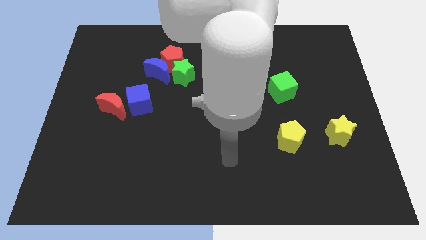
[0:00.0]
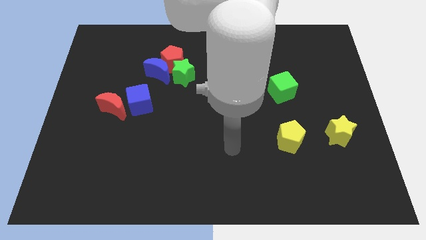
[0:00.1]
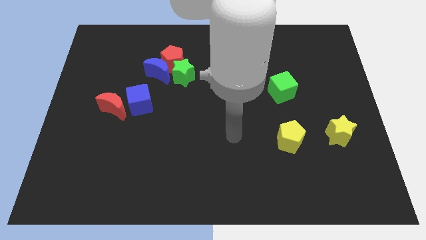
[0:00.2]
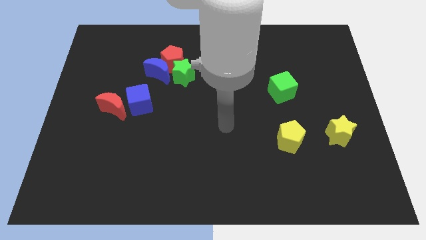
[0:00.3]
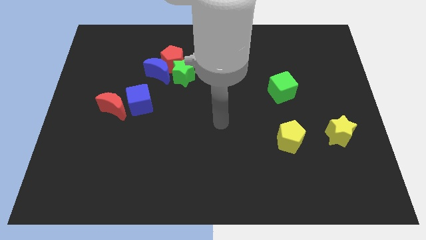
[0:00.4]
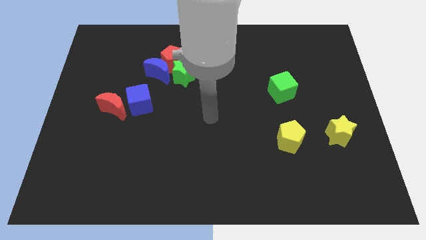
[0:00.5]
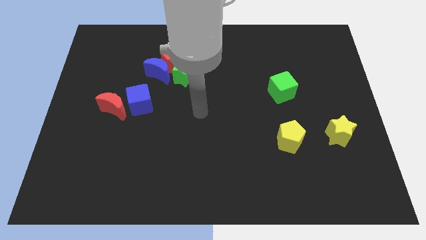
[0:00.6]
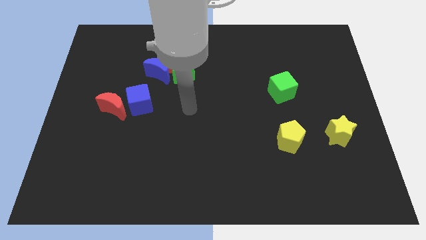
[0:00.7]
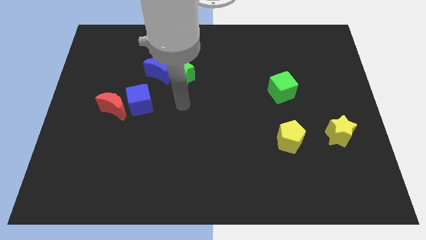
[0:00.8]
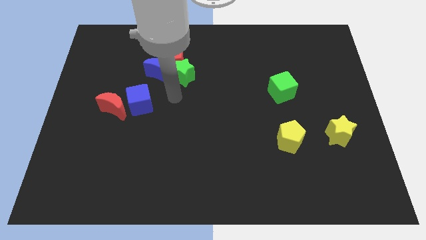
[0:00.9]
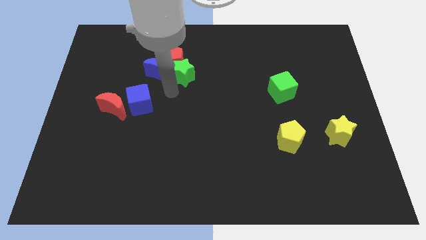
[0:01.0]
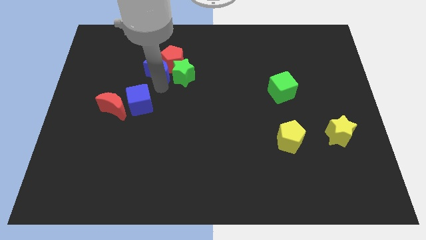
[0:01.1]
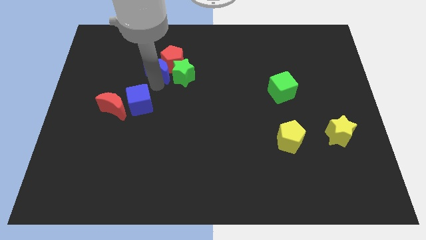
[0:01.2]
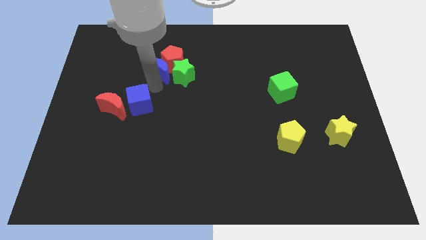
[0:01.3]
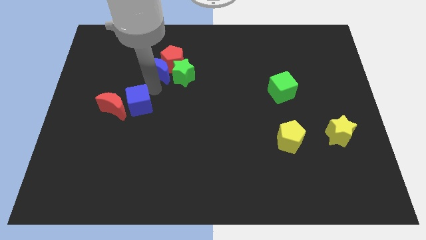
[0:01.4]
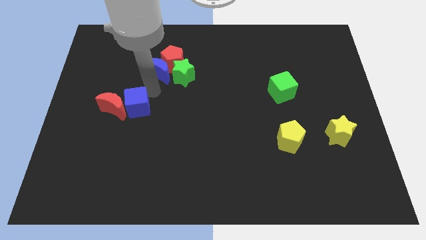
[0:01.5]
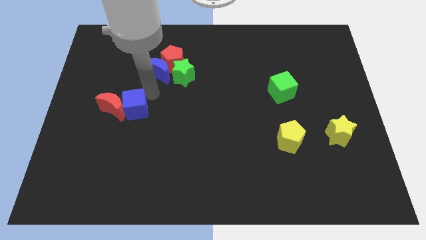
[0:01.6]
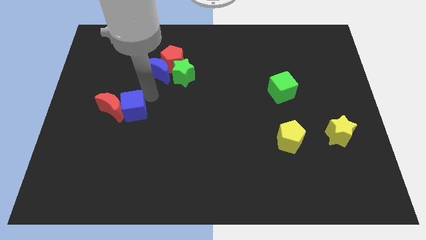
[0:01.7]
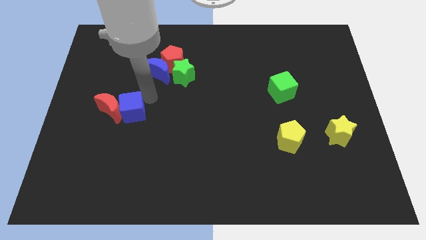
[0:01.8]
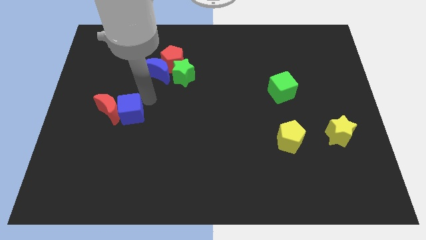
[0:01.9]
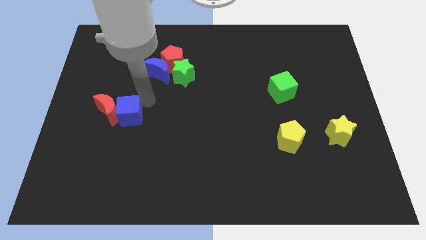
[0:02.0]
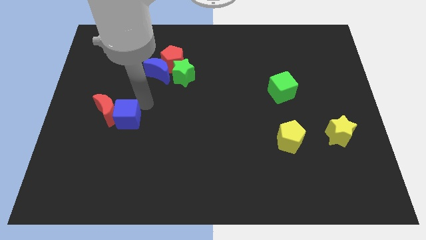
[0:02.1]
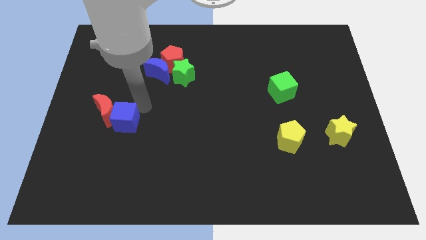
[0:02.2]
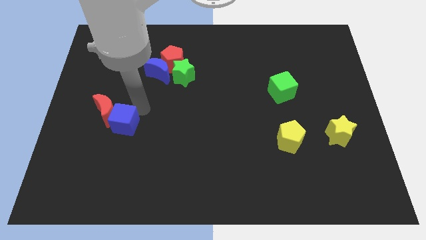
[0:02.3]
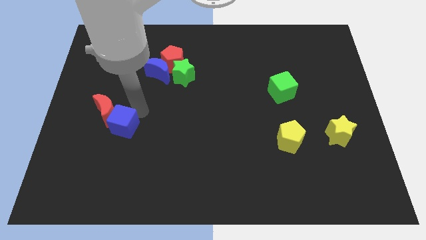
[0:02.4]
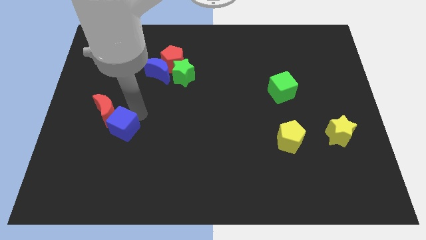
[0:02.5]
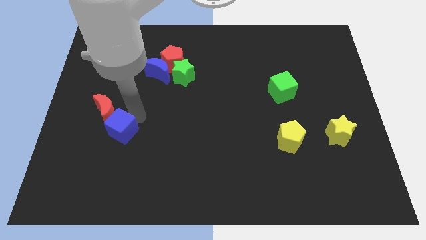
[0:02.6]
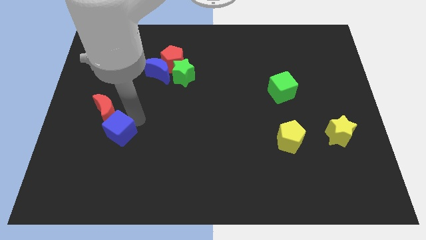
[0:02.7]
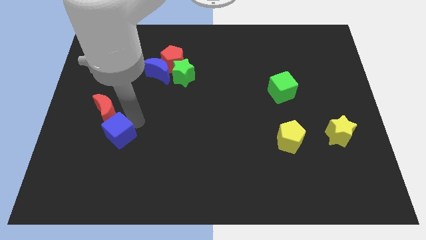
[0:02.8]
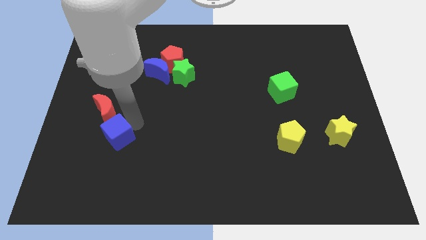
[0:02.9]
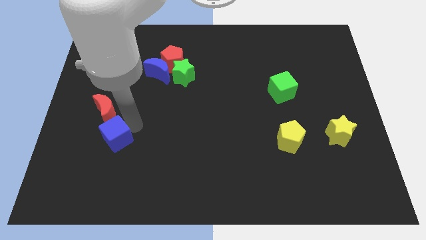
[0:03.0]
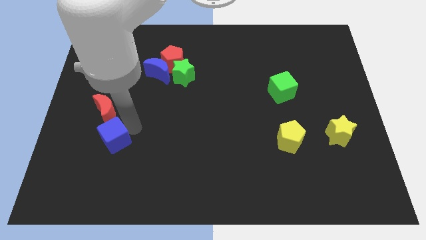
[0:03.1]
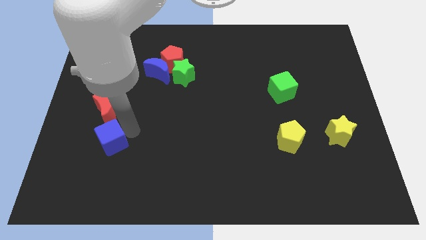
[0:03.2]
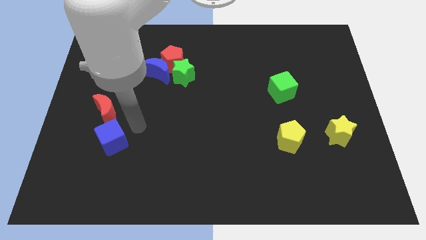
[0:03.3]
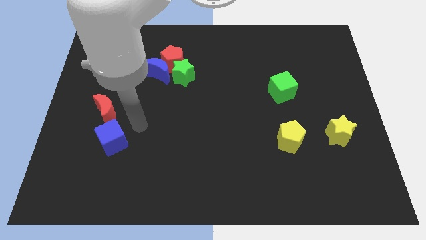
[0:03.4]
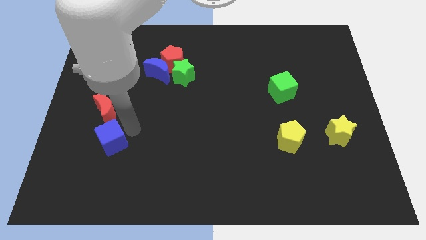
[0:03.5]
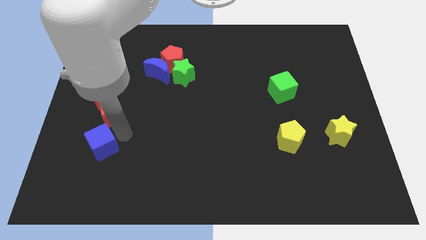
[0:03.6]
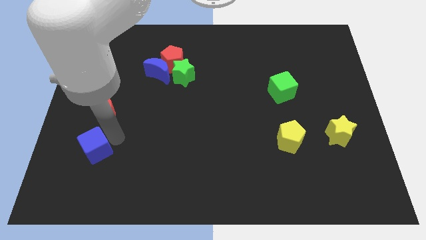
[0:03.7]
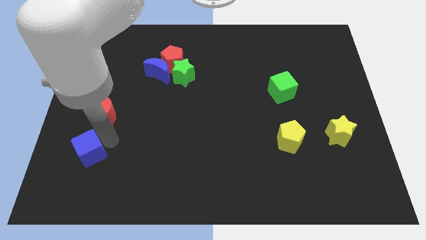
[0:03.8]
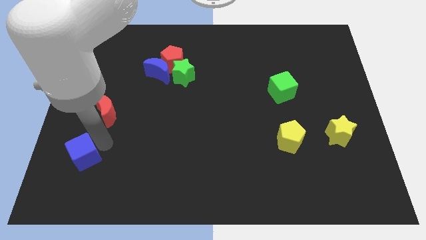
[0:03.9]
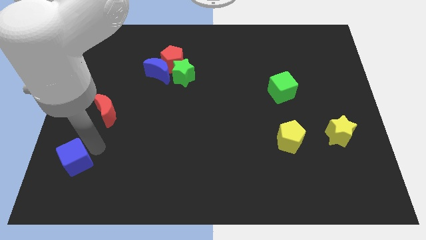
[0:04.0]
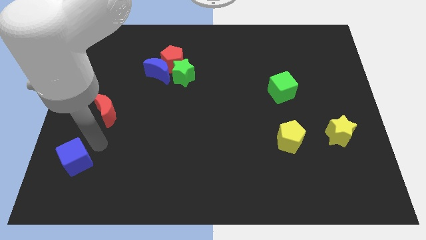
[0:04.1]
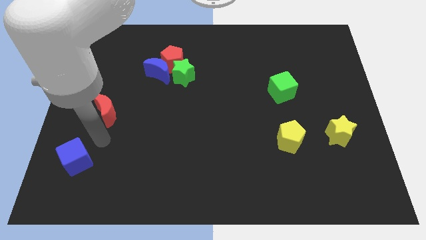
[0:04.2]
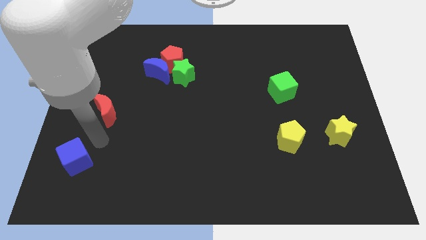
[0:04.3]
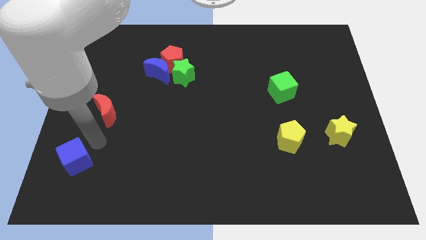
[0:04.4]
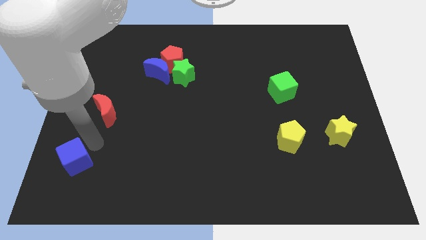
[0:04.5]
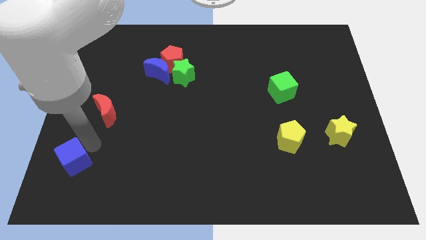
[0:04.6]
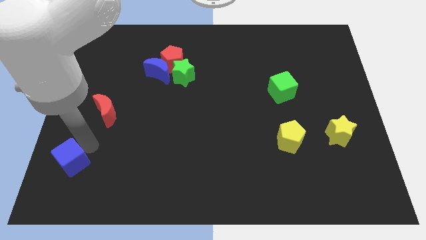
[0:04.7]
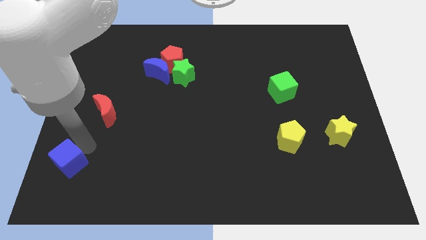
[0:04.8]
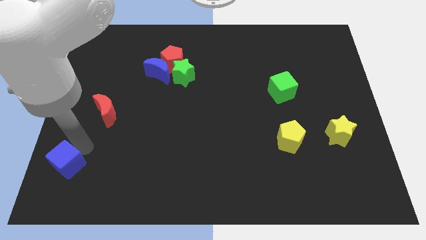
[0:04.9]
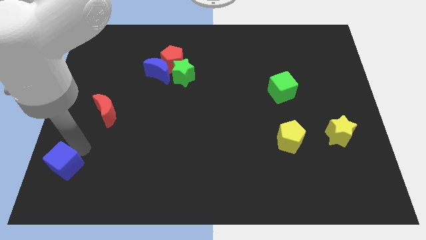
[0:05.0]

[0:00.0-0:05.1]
slide the blue cube to the bottom left
